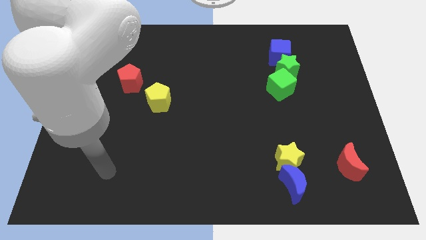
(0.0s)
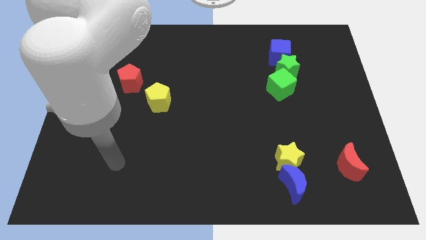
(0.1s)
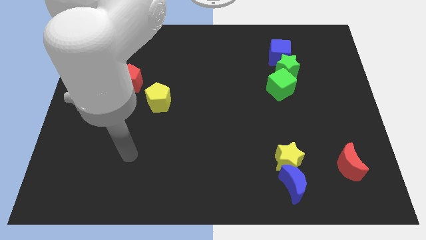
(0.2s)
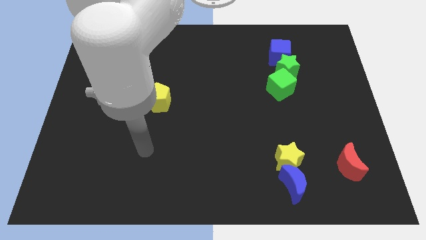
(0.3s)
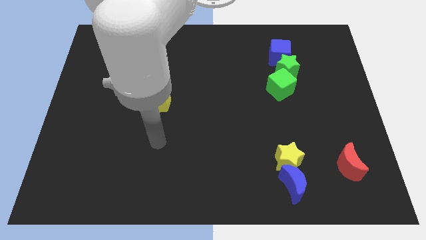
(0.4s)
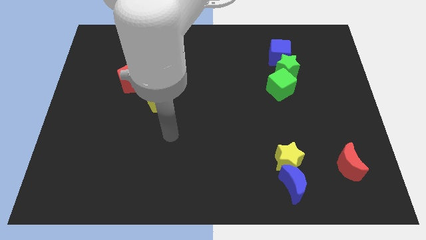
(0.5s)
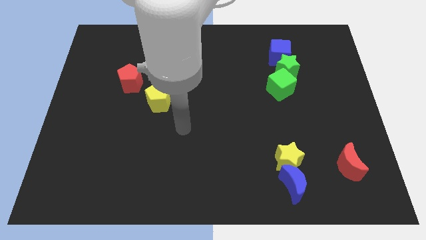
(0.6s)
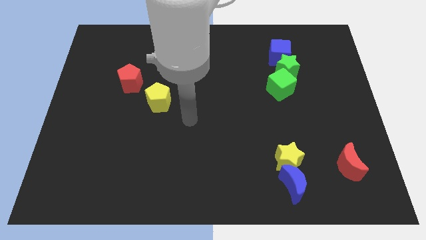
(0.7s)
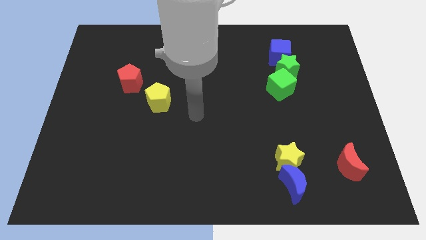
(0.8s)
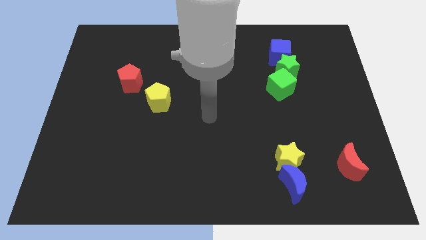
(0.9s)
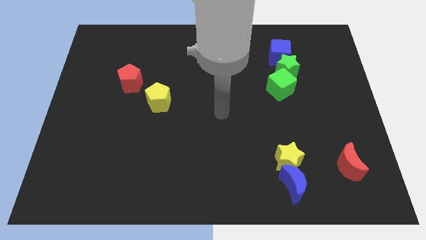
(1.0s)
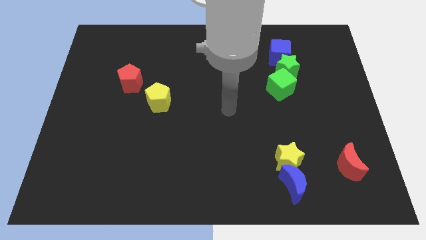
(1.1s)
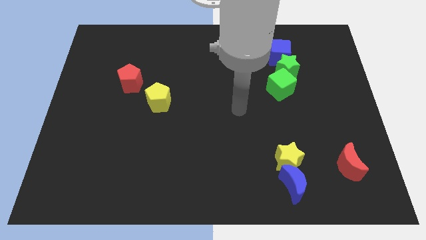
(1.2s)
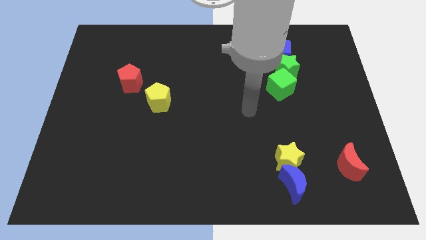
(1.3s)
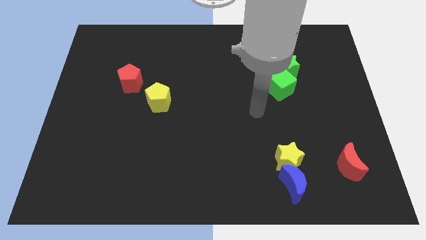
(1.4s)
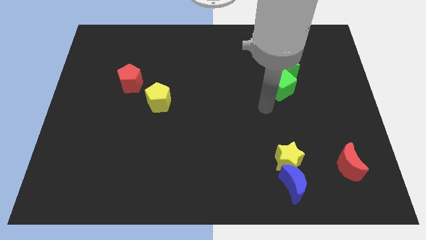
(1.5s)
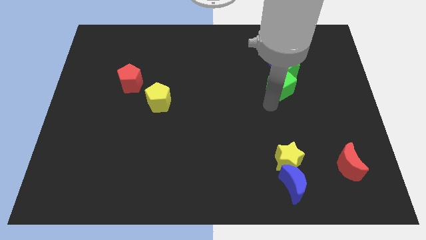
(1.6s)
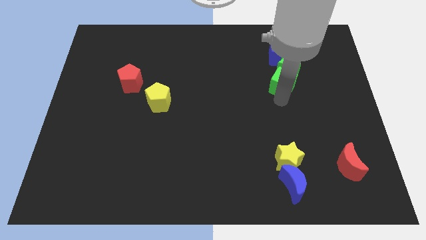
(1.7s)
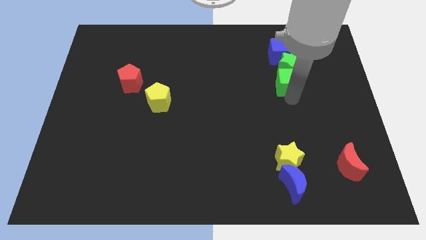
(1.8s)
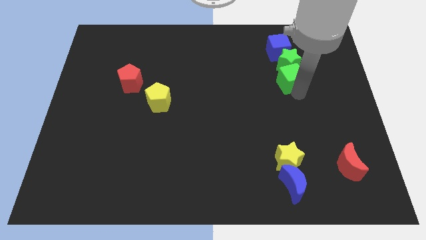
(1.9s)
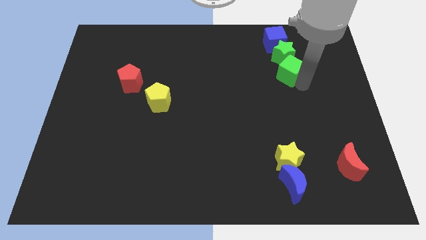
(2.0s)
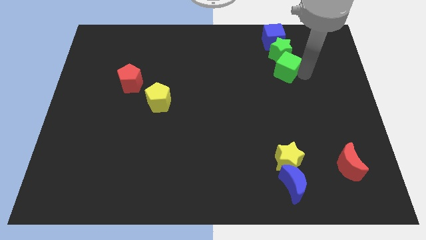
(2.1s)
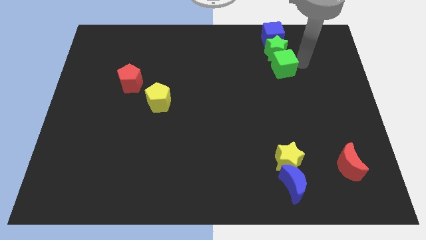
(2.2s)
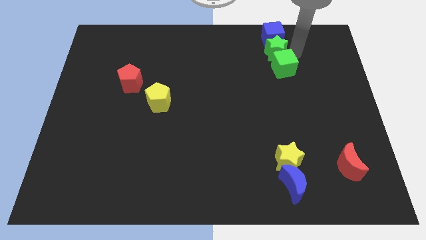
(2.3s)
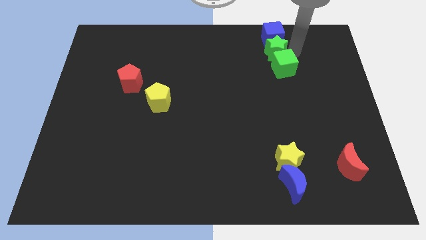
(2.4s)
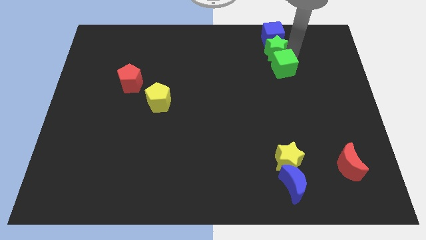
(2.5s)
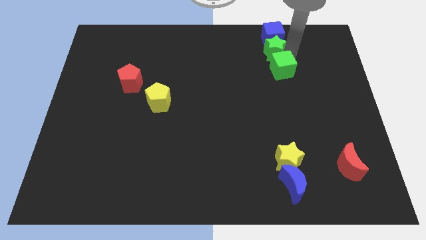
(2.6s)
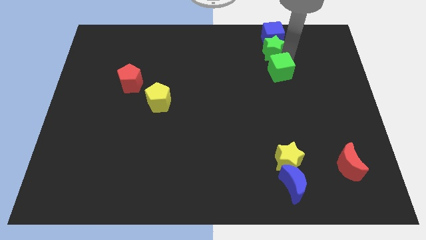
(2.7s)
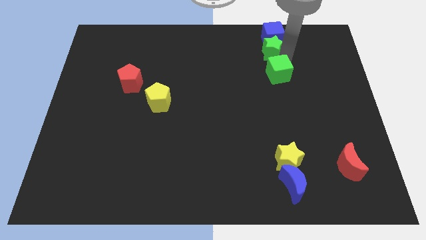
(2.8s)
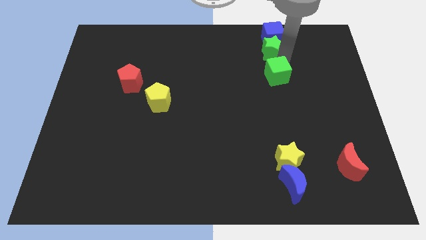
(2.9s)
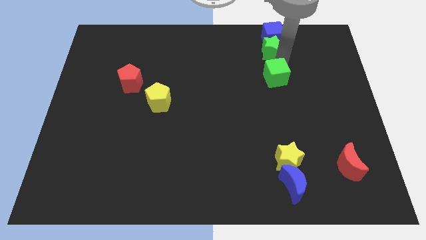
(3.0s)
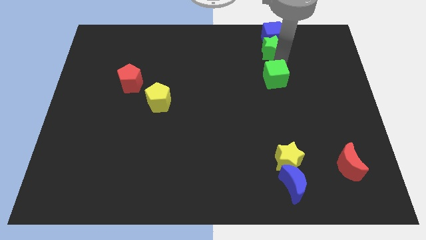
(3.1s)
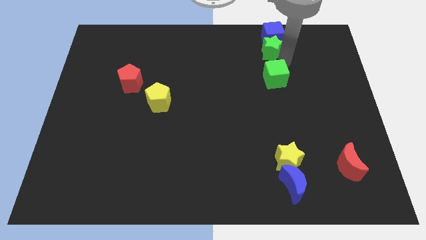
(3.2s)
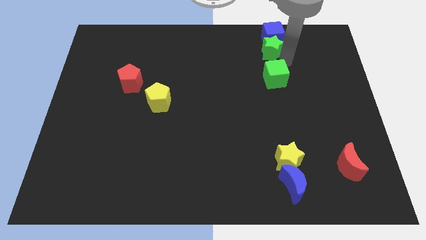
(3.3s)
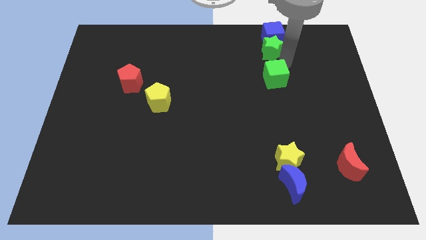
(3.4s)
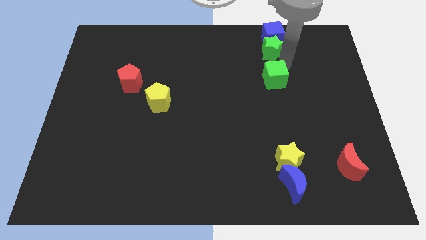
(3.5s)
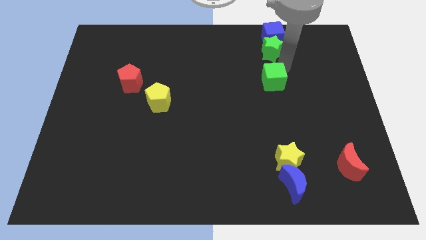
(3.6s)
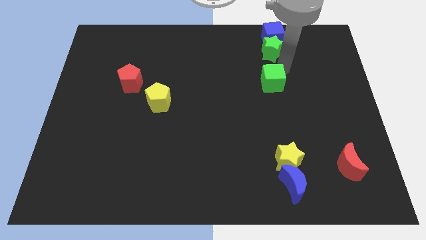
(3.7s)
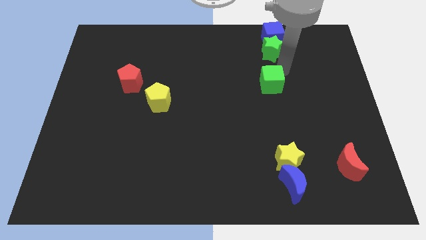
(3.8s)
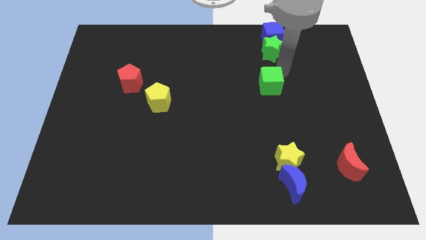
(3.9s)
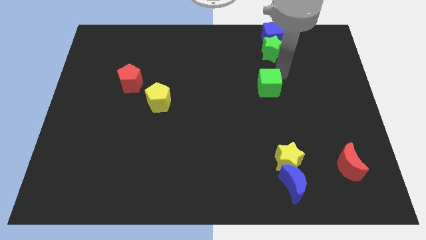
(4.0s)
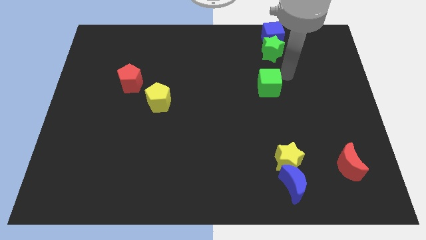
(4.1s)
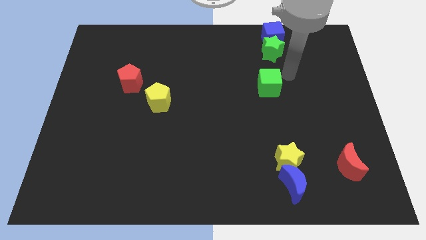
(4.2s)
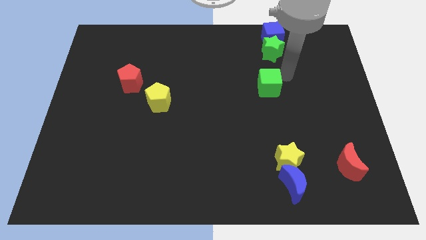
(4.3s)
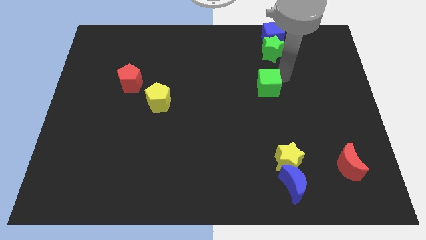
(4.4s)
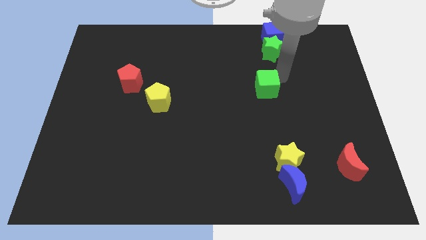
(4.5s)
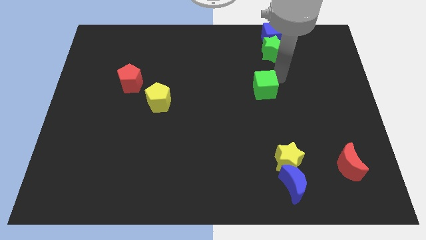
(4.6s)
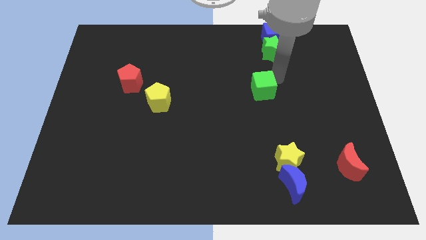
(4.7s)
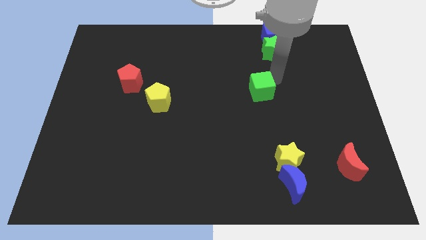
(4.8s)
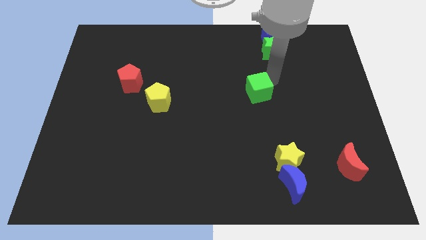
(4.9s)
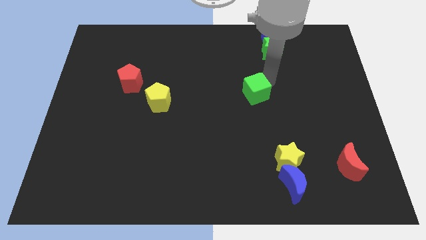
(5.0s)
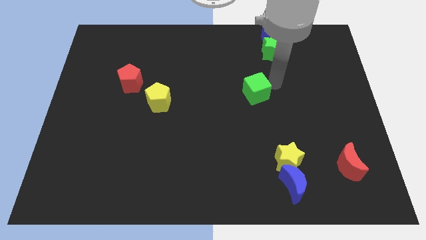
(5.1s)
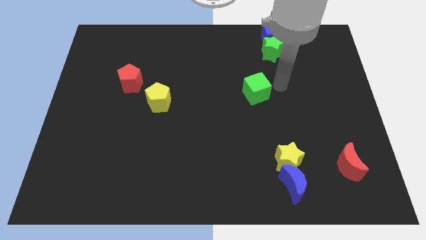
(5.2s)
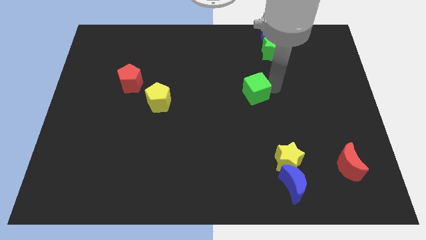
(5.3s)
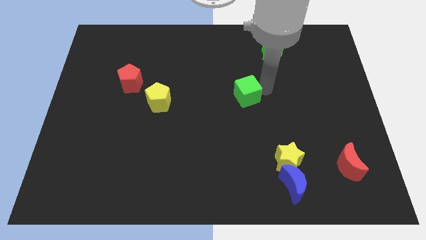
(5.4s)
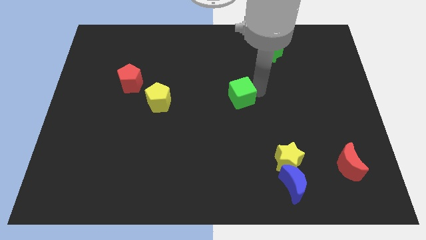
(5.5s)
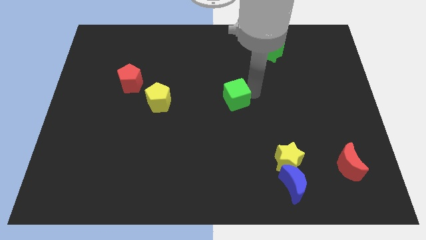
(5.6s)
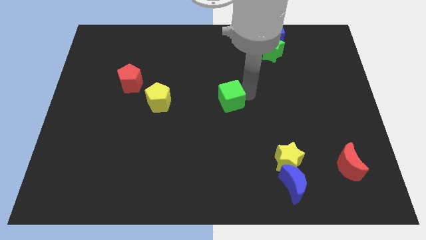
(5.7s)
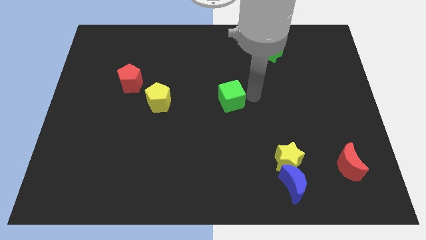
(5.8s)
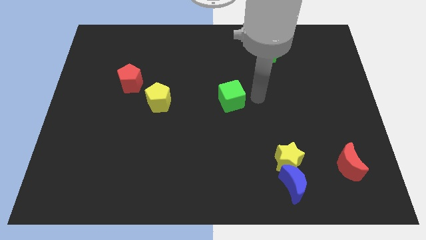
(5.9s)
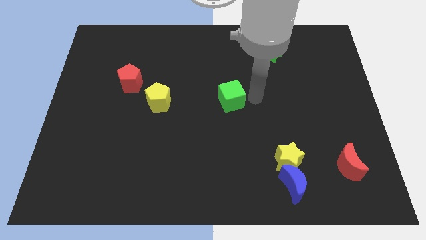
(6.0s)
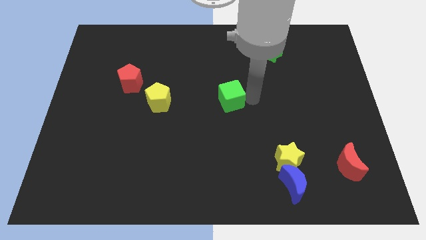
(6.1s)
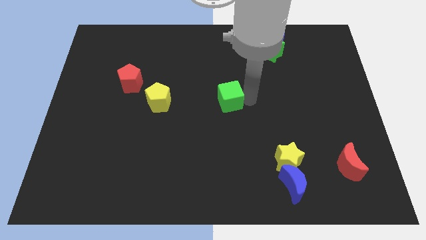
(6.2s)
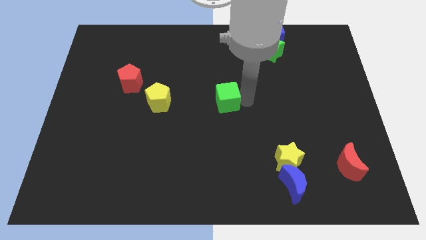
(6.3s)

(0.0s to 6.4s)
put the green cube just right of the yellow pentagon

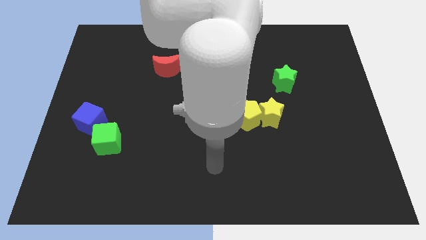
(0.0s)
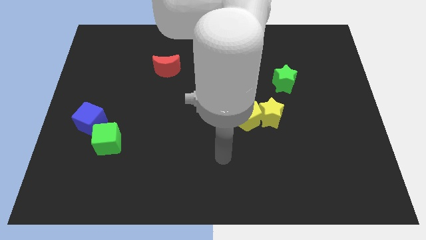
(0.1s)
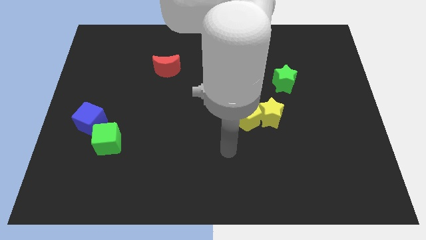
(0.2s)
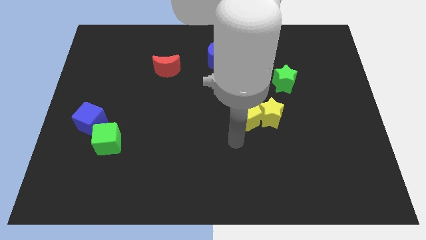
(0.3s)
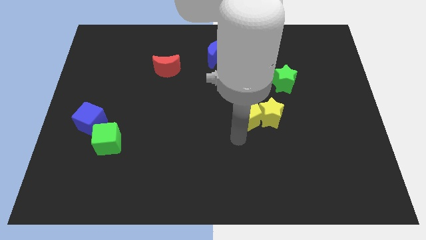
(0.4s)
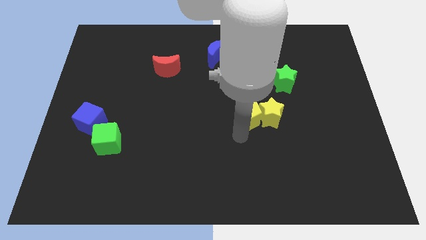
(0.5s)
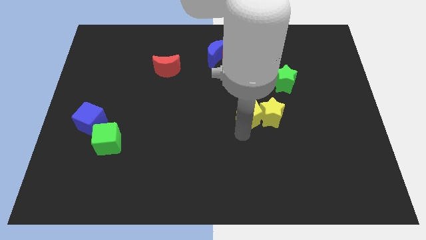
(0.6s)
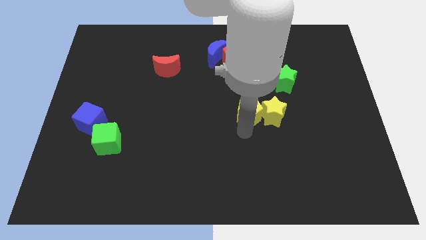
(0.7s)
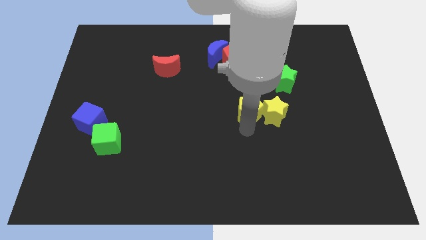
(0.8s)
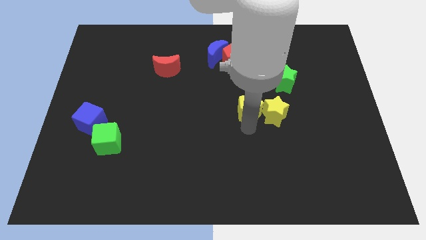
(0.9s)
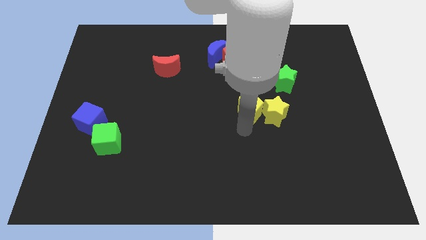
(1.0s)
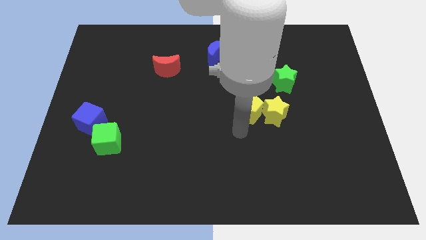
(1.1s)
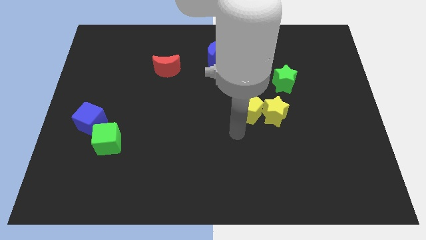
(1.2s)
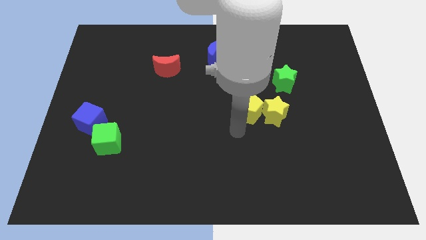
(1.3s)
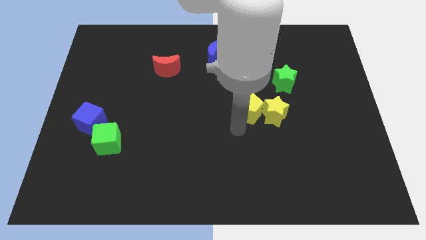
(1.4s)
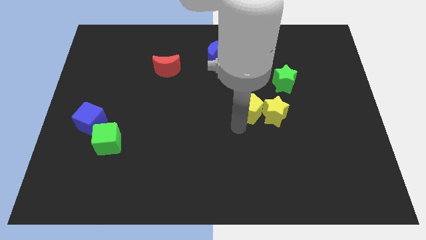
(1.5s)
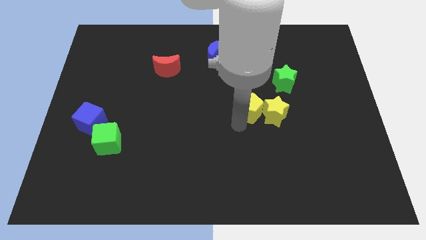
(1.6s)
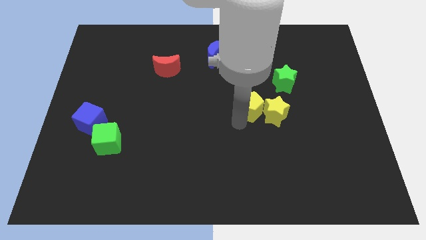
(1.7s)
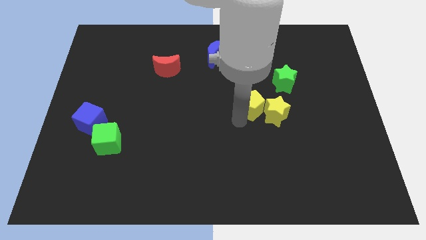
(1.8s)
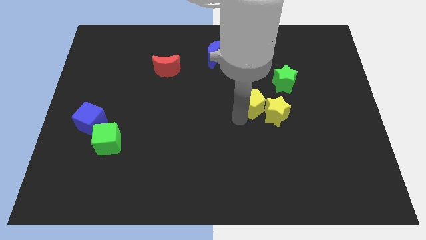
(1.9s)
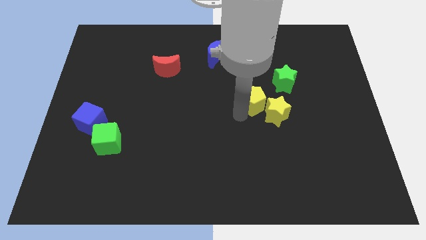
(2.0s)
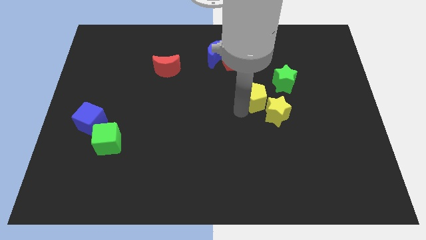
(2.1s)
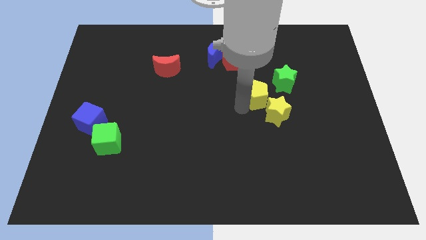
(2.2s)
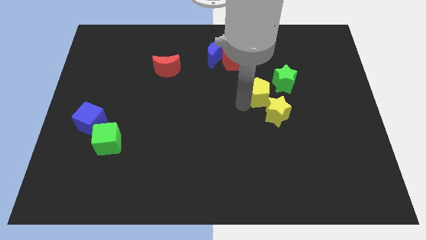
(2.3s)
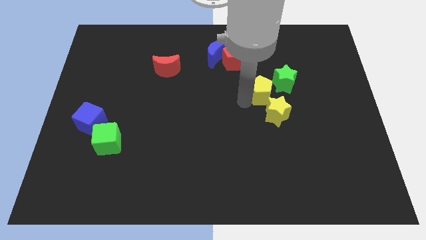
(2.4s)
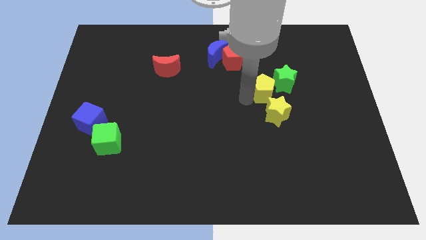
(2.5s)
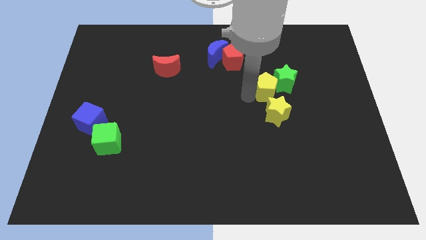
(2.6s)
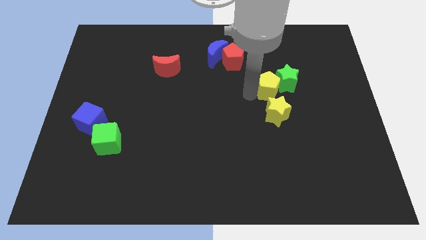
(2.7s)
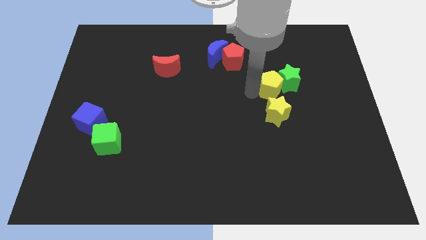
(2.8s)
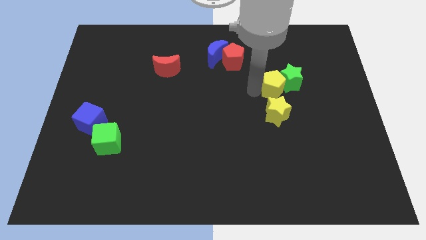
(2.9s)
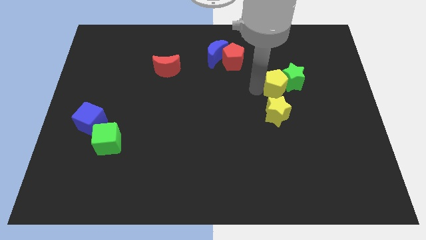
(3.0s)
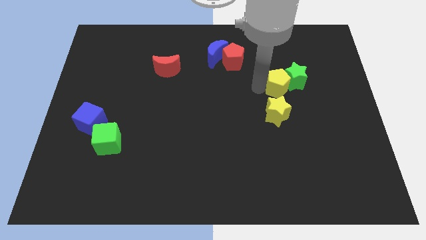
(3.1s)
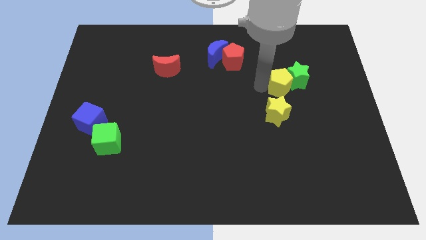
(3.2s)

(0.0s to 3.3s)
put the yellow pentagon to the top right side of the yellow star
